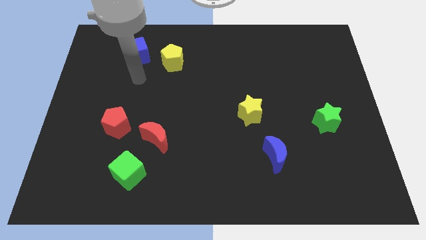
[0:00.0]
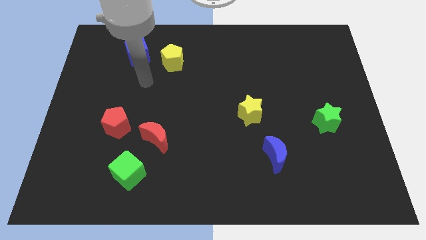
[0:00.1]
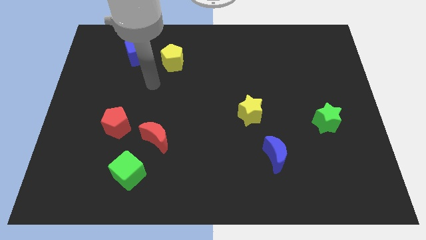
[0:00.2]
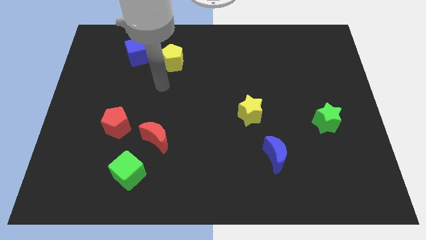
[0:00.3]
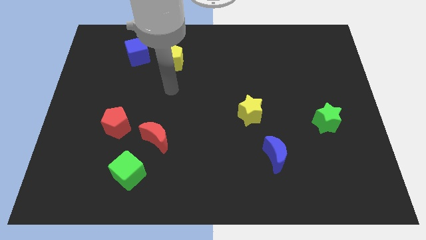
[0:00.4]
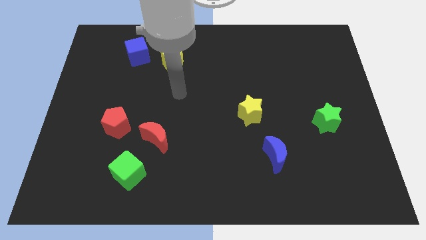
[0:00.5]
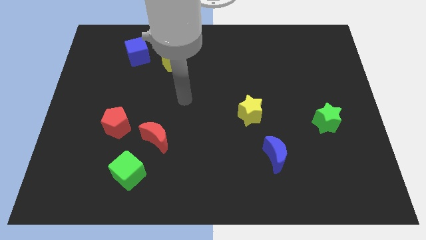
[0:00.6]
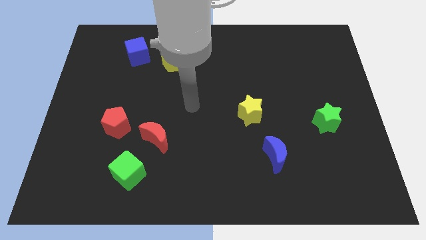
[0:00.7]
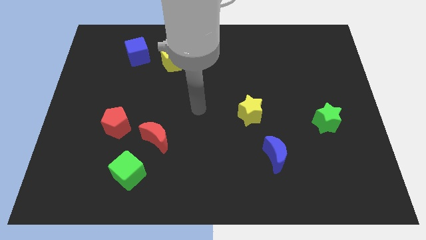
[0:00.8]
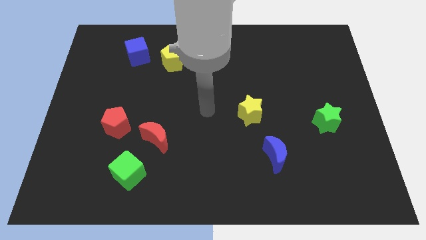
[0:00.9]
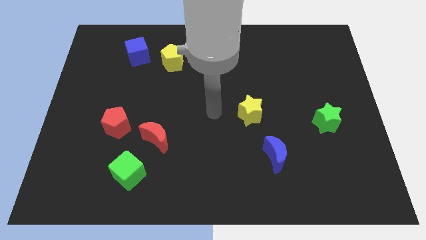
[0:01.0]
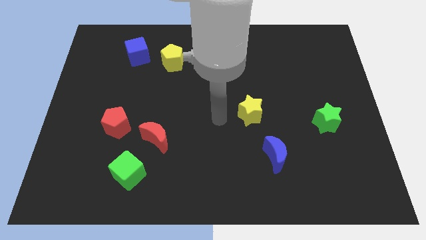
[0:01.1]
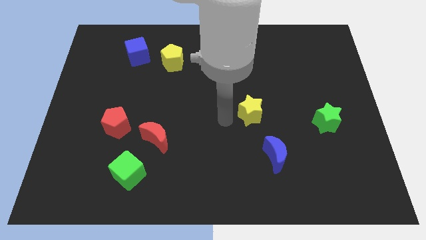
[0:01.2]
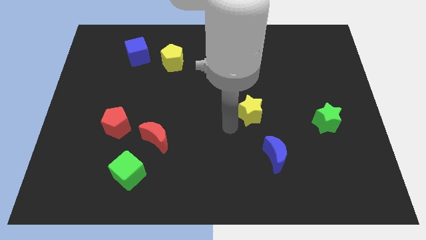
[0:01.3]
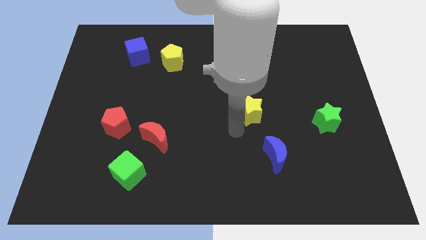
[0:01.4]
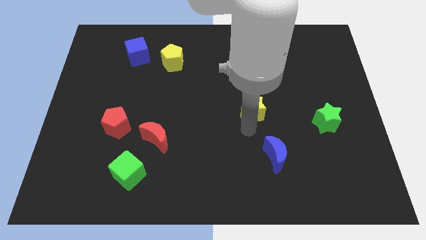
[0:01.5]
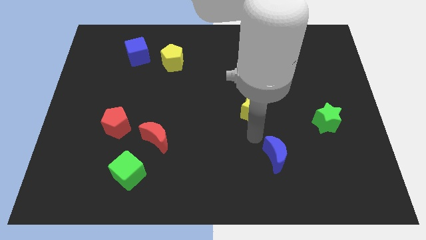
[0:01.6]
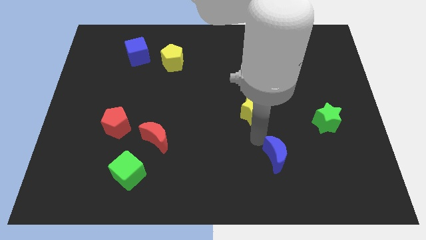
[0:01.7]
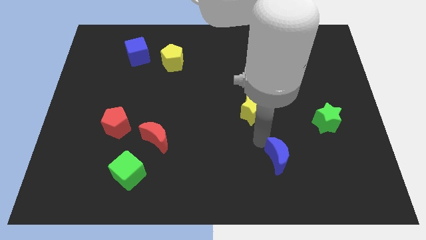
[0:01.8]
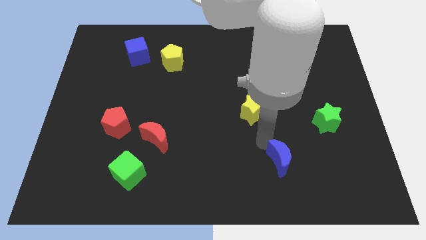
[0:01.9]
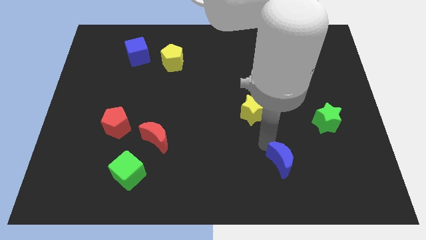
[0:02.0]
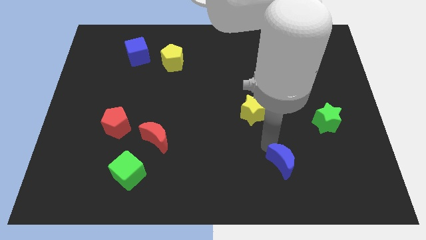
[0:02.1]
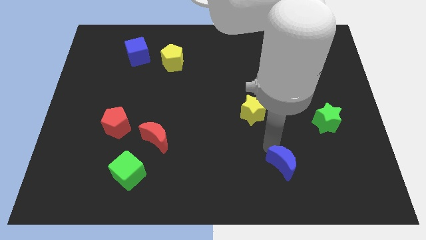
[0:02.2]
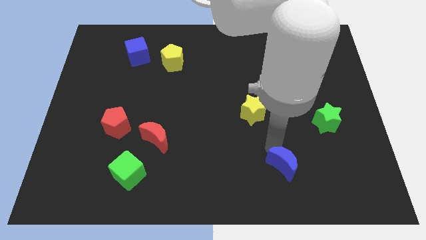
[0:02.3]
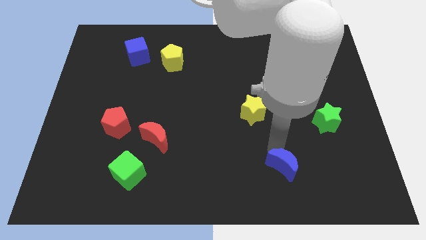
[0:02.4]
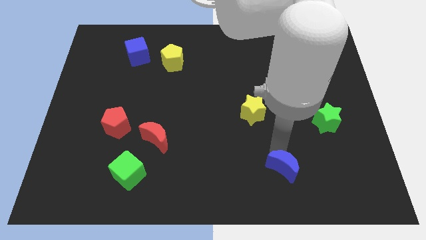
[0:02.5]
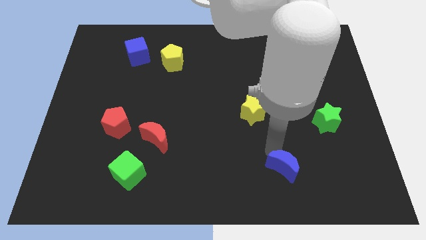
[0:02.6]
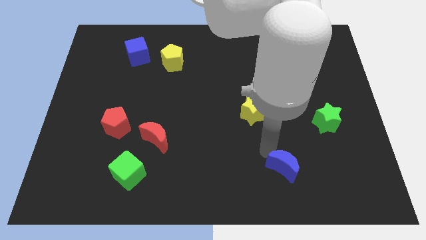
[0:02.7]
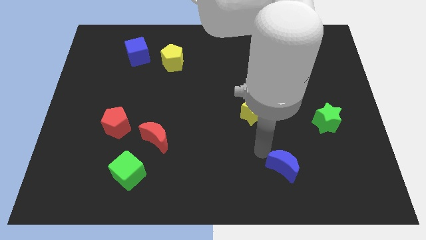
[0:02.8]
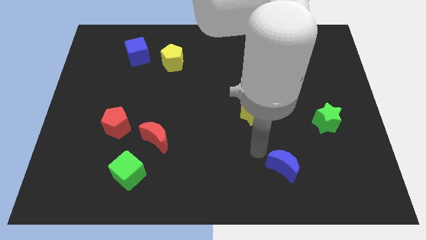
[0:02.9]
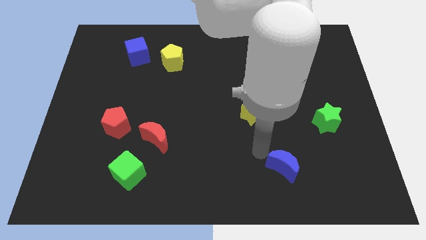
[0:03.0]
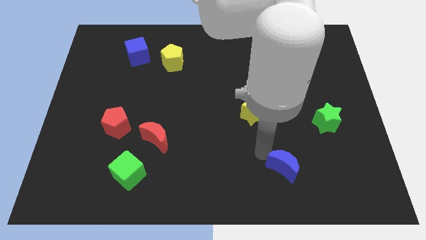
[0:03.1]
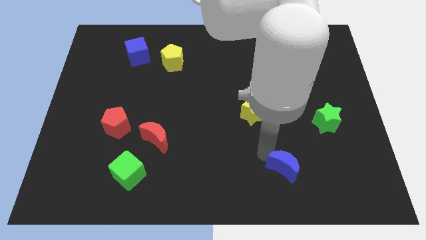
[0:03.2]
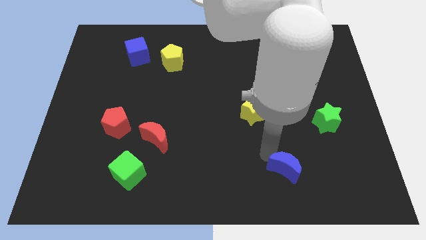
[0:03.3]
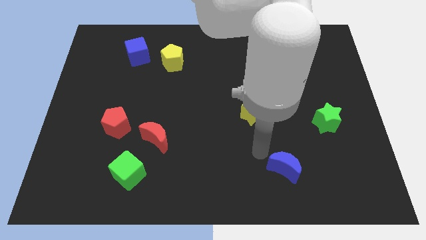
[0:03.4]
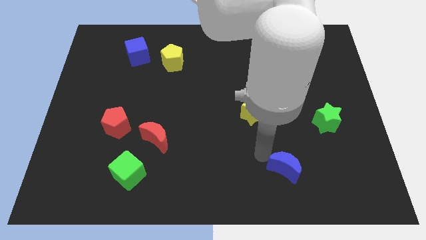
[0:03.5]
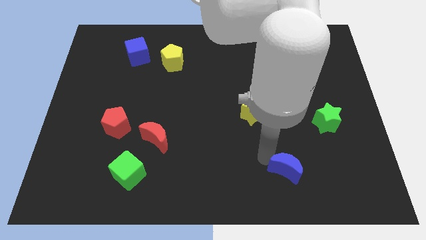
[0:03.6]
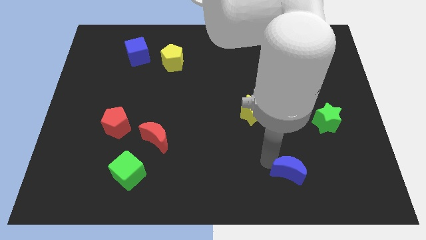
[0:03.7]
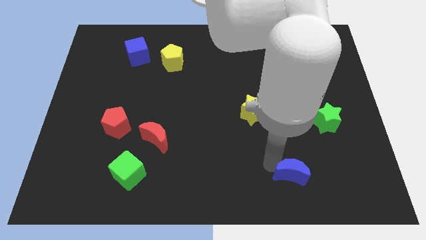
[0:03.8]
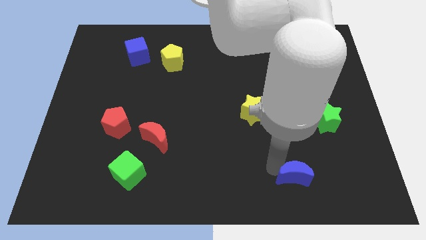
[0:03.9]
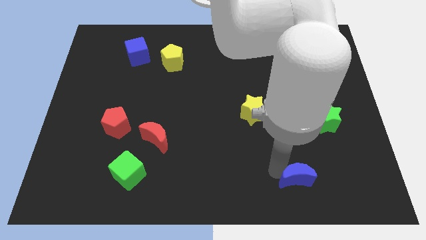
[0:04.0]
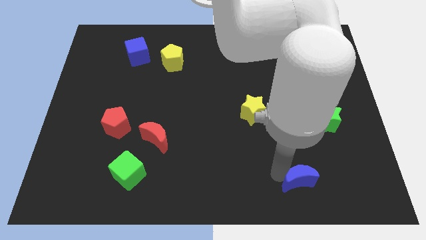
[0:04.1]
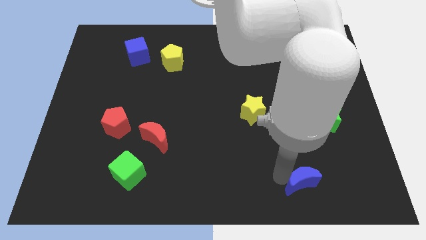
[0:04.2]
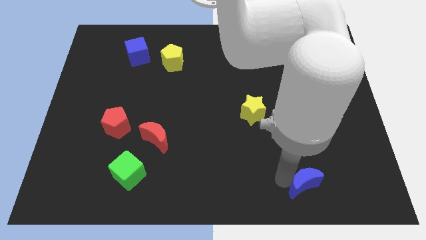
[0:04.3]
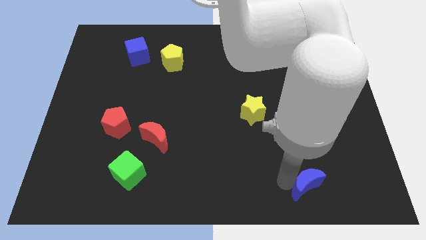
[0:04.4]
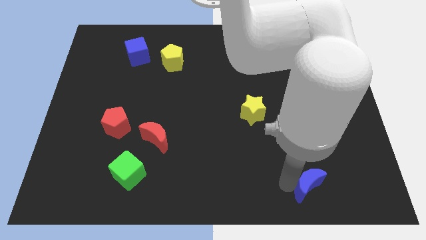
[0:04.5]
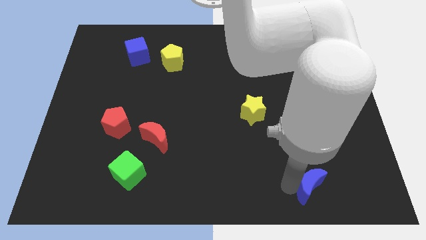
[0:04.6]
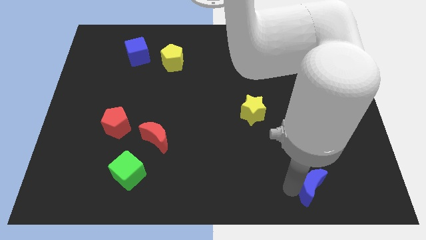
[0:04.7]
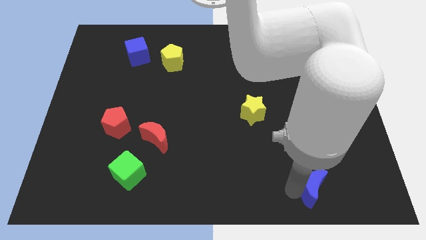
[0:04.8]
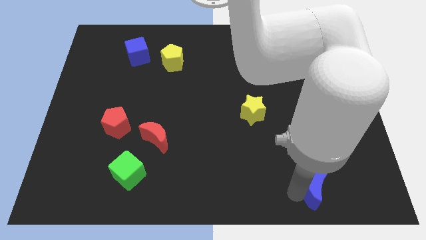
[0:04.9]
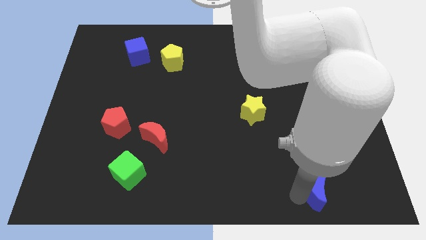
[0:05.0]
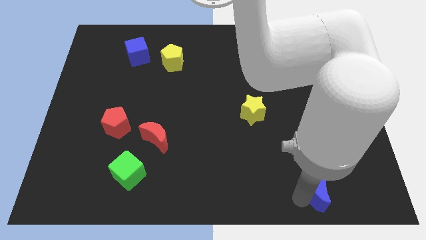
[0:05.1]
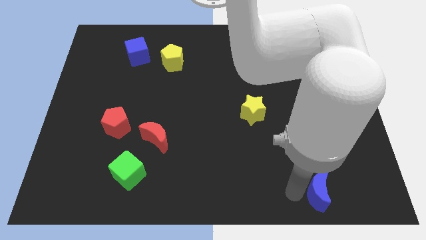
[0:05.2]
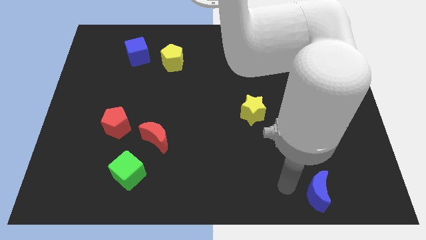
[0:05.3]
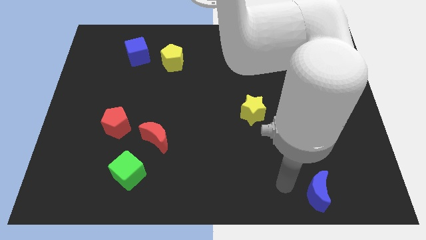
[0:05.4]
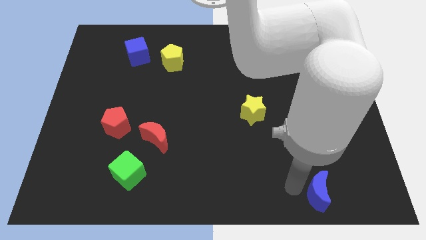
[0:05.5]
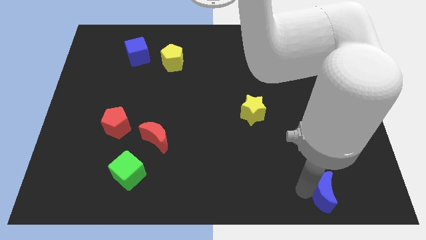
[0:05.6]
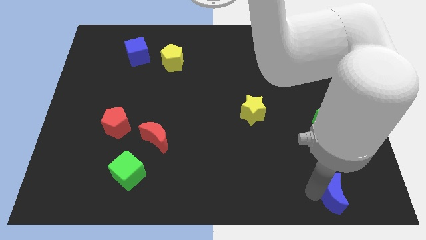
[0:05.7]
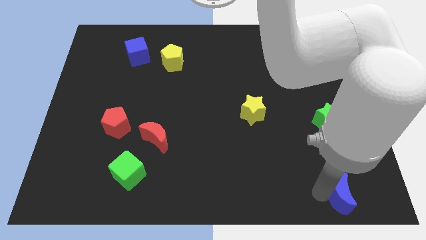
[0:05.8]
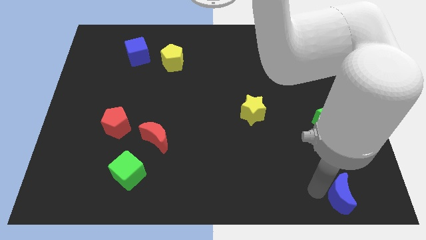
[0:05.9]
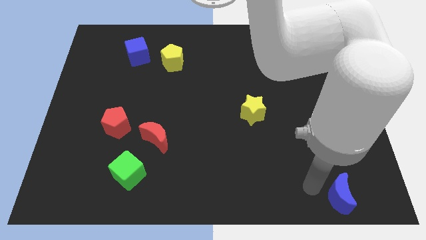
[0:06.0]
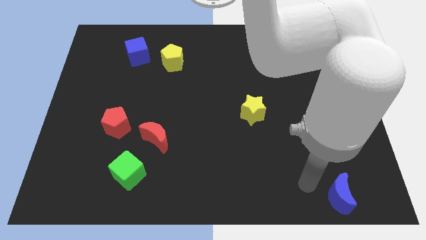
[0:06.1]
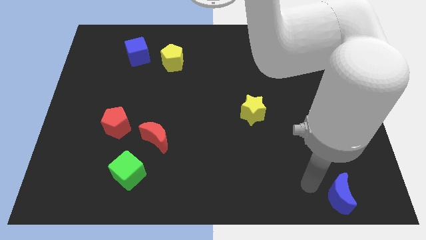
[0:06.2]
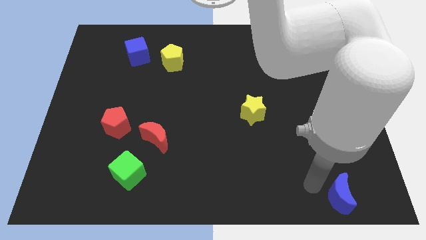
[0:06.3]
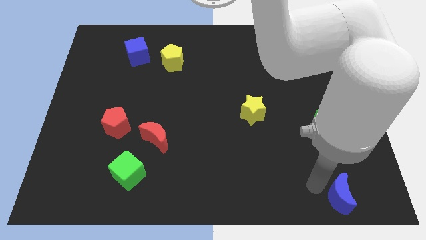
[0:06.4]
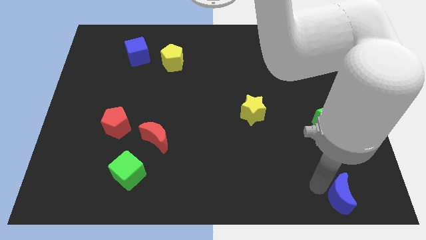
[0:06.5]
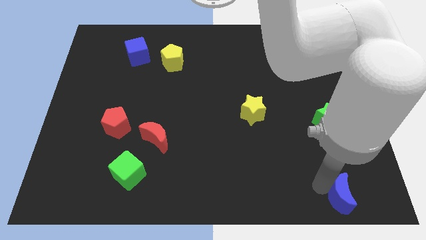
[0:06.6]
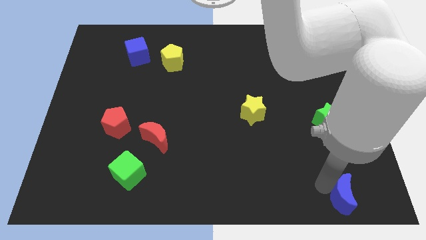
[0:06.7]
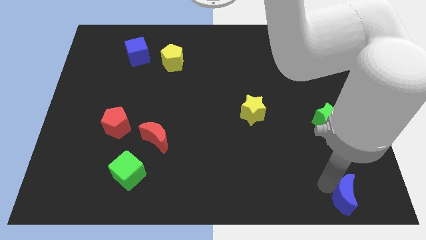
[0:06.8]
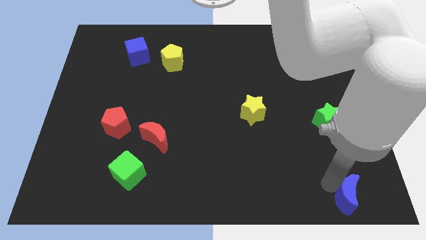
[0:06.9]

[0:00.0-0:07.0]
push the blue moon to the bottom right corner
